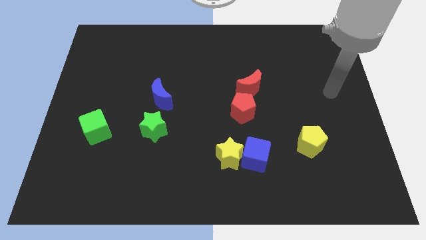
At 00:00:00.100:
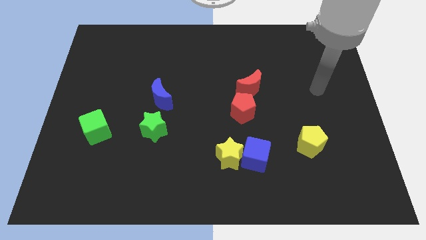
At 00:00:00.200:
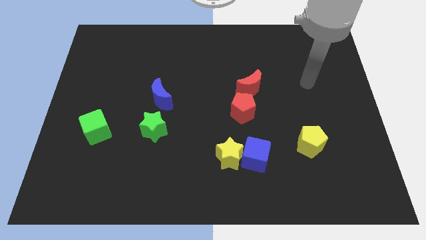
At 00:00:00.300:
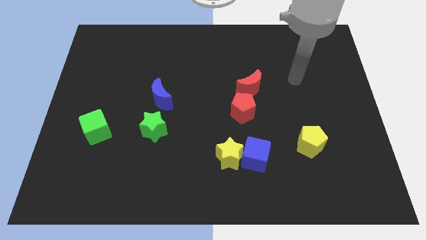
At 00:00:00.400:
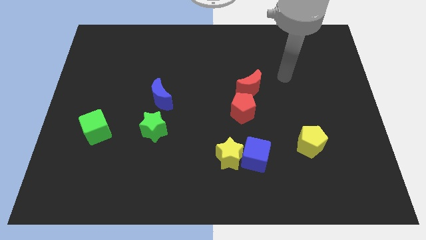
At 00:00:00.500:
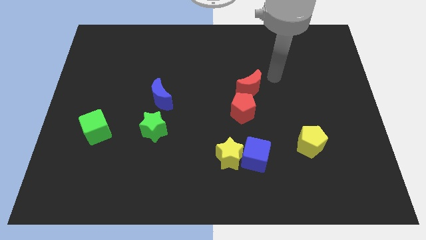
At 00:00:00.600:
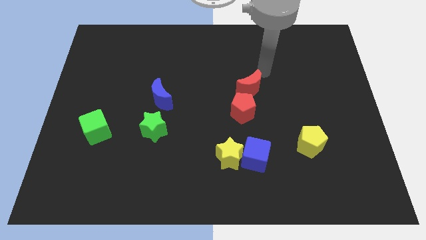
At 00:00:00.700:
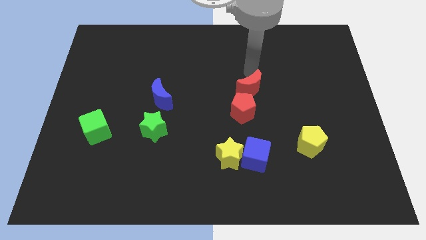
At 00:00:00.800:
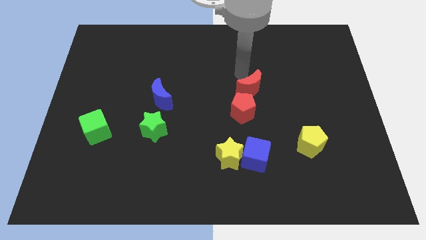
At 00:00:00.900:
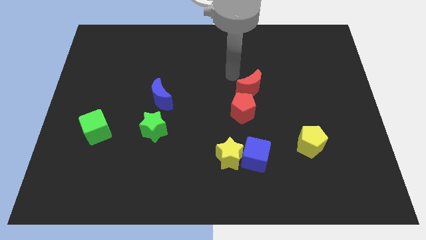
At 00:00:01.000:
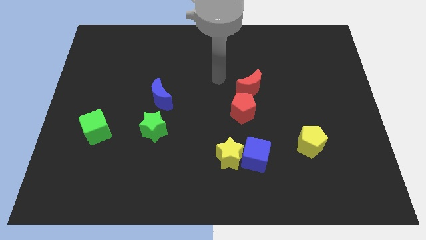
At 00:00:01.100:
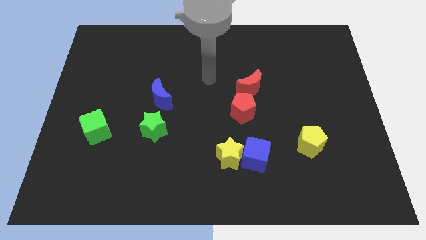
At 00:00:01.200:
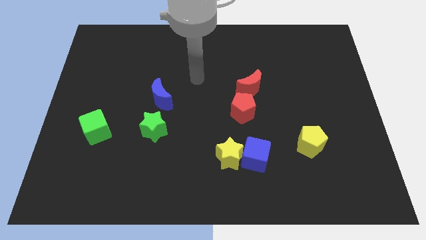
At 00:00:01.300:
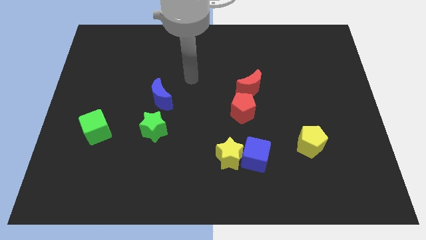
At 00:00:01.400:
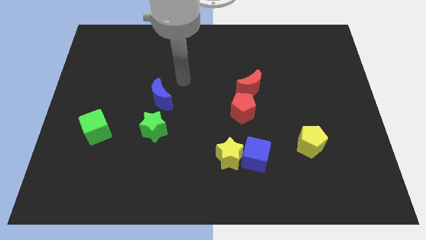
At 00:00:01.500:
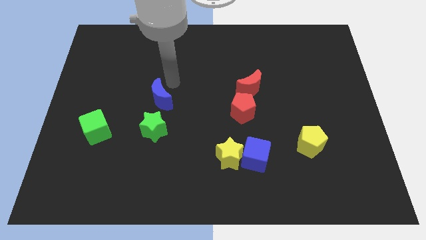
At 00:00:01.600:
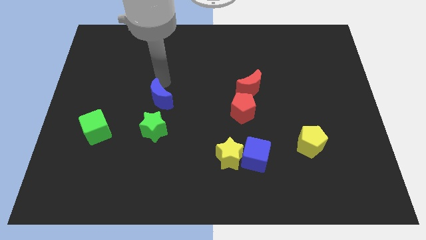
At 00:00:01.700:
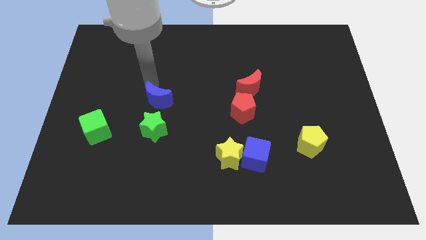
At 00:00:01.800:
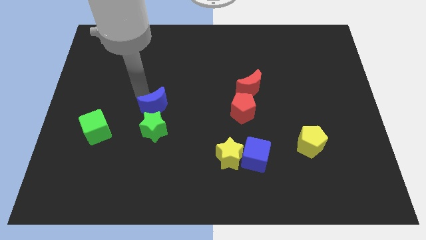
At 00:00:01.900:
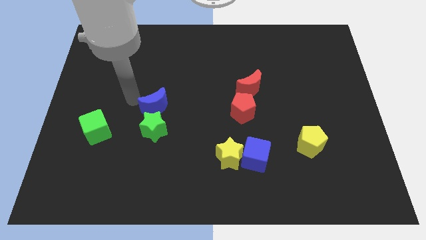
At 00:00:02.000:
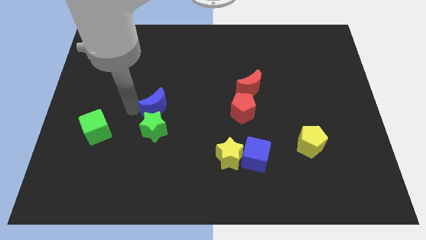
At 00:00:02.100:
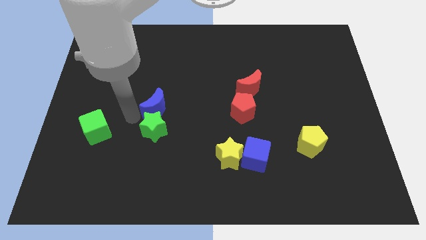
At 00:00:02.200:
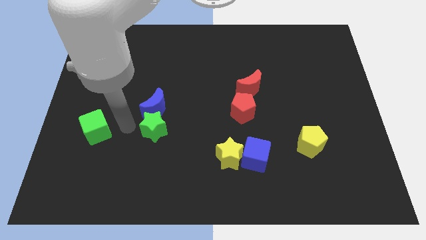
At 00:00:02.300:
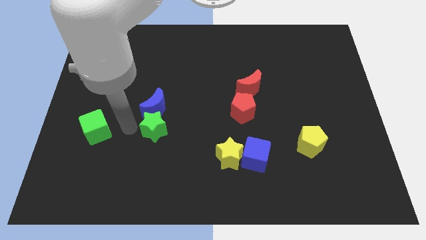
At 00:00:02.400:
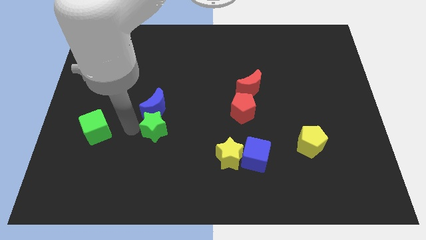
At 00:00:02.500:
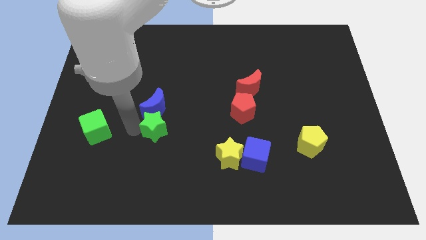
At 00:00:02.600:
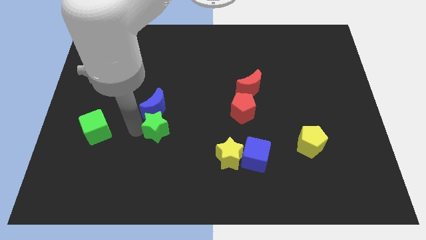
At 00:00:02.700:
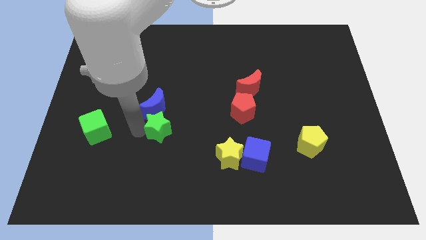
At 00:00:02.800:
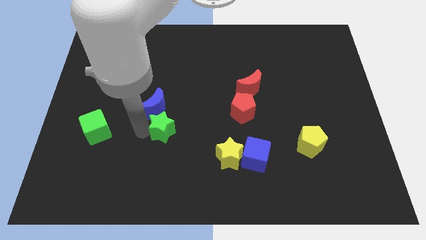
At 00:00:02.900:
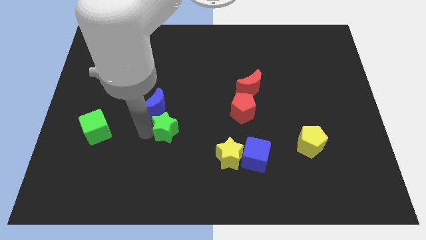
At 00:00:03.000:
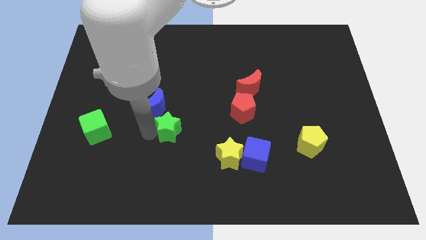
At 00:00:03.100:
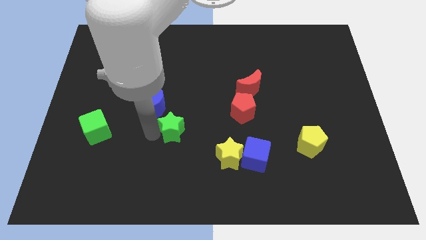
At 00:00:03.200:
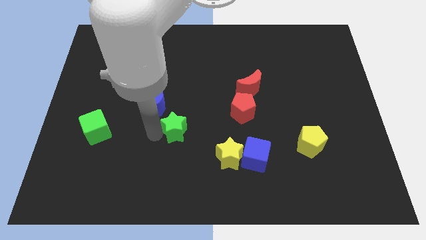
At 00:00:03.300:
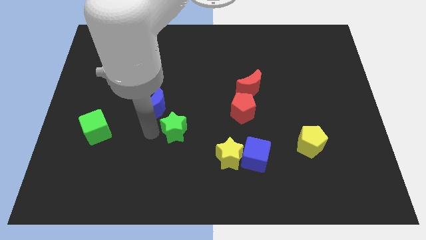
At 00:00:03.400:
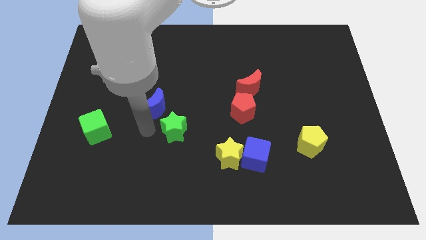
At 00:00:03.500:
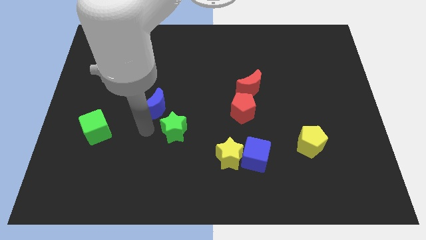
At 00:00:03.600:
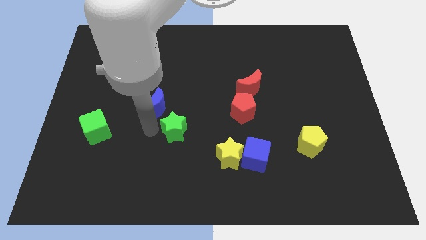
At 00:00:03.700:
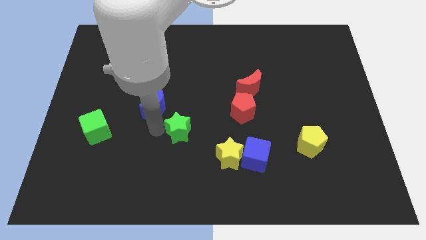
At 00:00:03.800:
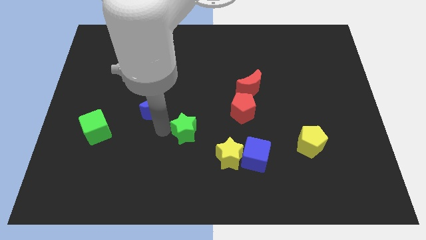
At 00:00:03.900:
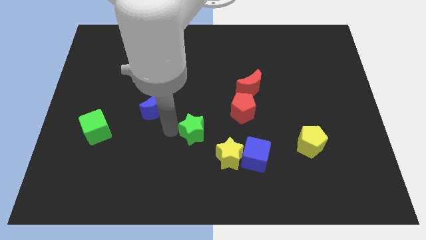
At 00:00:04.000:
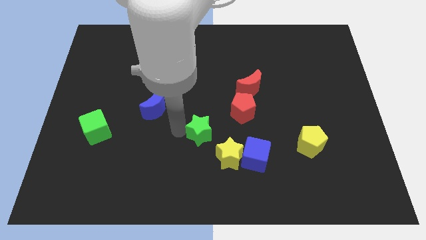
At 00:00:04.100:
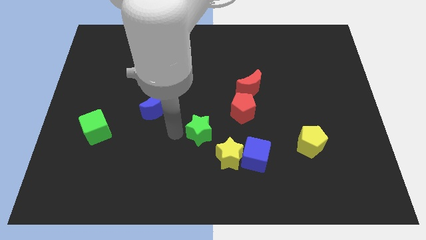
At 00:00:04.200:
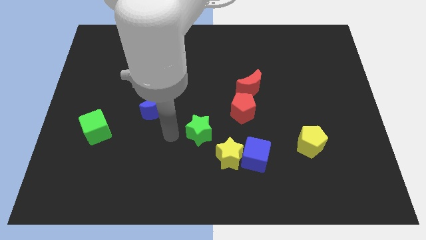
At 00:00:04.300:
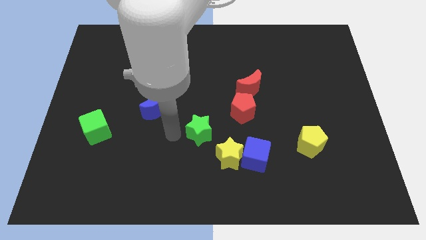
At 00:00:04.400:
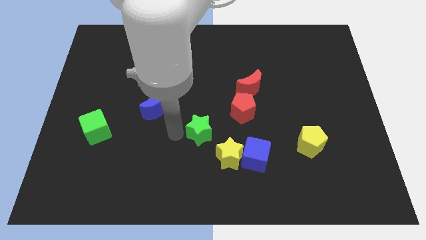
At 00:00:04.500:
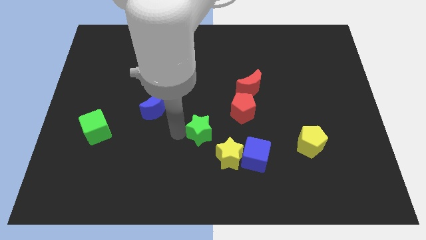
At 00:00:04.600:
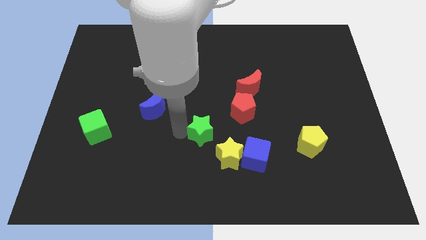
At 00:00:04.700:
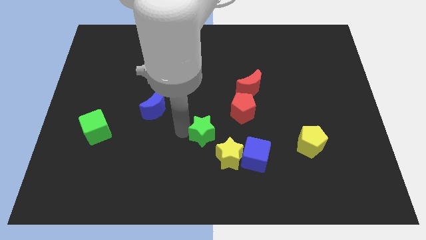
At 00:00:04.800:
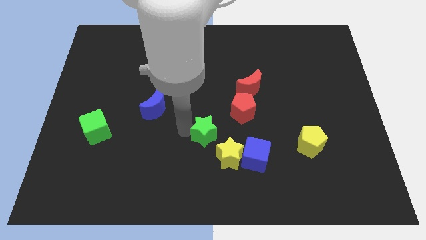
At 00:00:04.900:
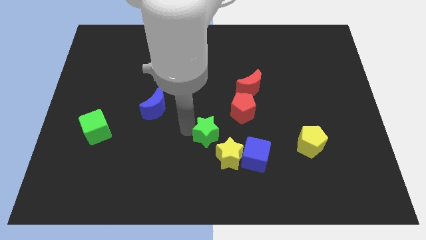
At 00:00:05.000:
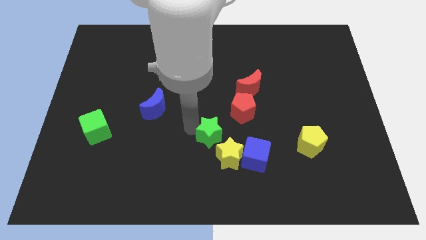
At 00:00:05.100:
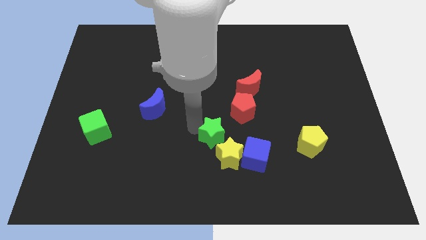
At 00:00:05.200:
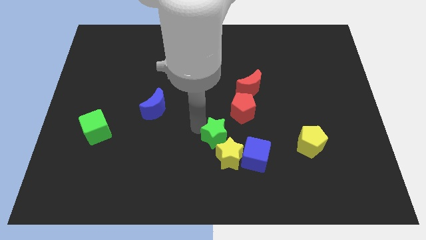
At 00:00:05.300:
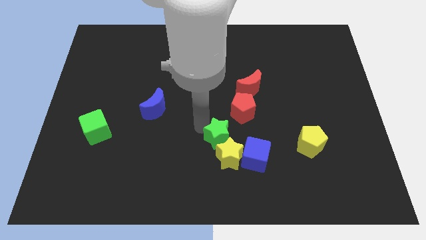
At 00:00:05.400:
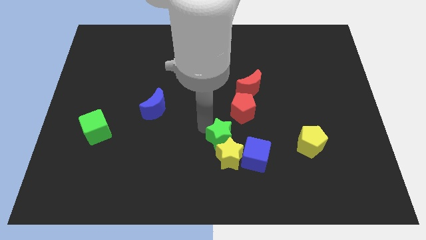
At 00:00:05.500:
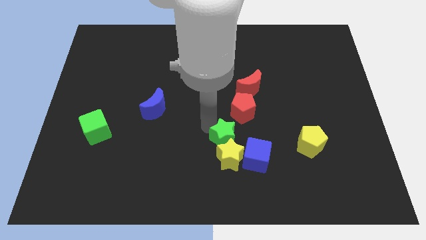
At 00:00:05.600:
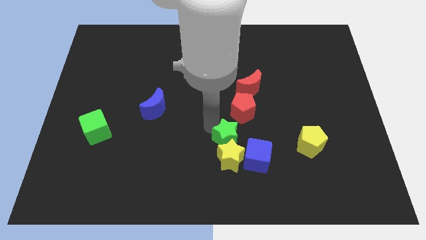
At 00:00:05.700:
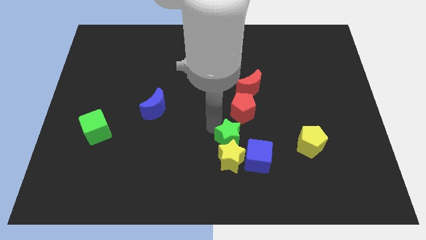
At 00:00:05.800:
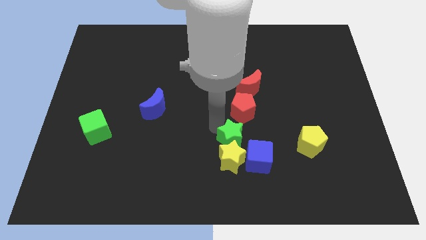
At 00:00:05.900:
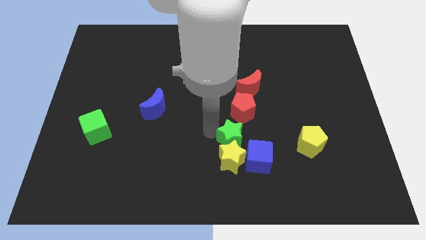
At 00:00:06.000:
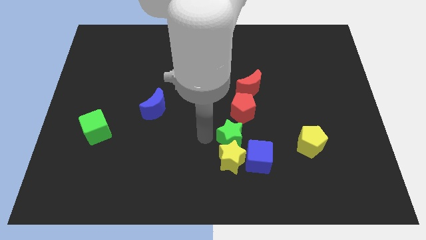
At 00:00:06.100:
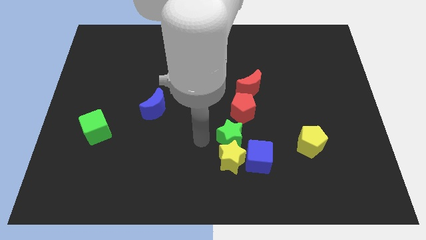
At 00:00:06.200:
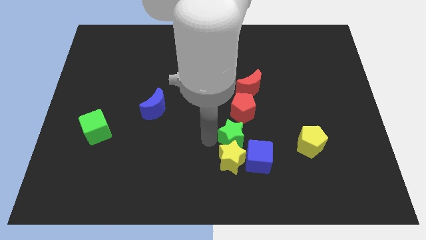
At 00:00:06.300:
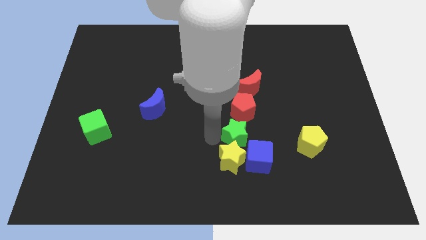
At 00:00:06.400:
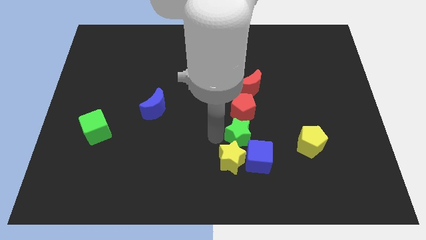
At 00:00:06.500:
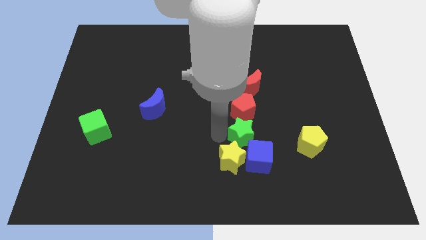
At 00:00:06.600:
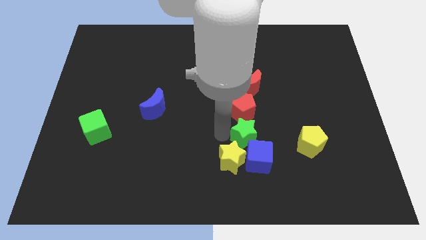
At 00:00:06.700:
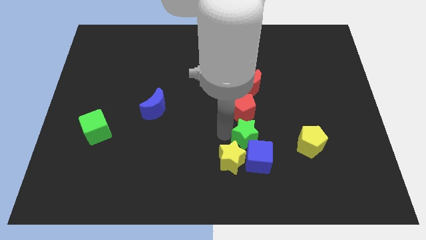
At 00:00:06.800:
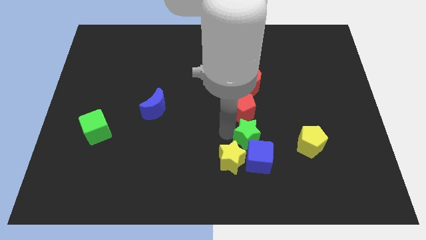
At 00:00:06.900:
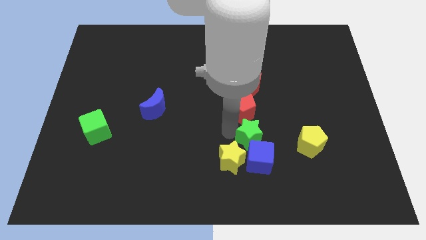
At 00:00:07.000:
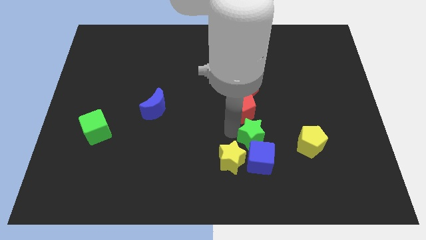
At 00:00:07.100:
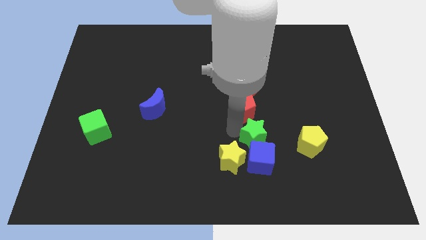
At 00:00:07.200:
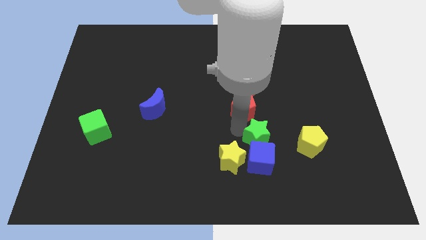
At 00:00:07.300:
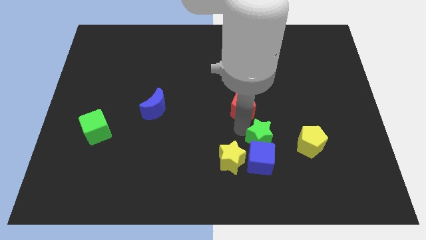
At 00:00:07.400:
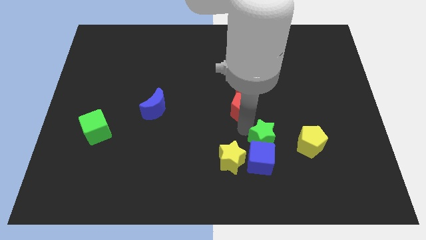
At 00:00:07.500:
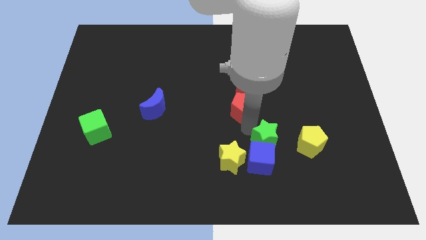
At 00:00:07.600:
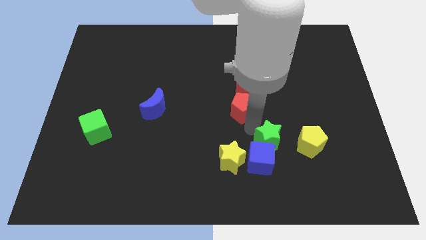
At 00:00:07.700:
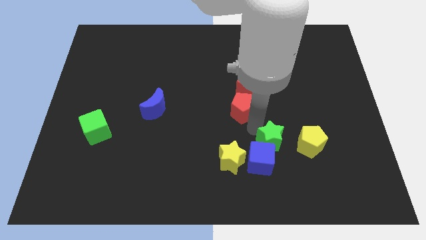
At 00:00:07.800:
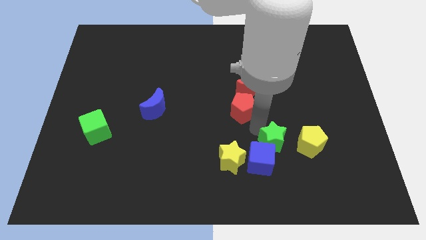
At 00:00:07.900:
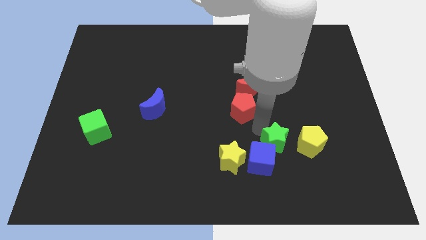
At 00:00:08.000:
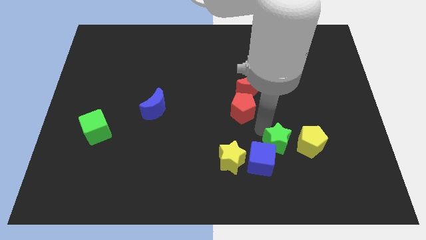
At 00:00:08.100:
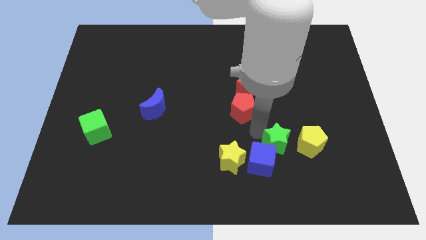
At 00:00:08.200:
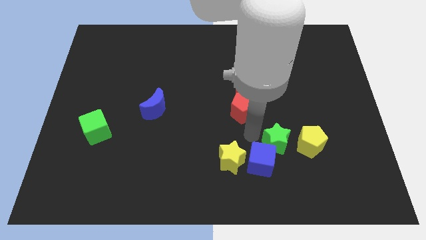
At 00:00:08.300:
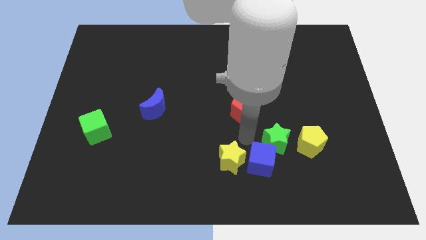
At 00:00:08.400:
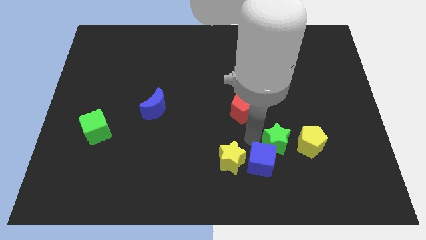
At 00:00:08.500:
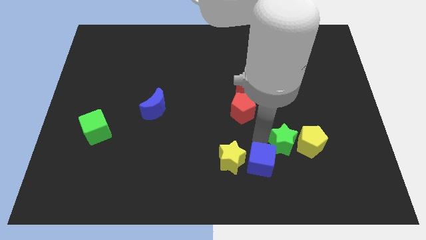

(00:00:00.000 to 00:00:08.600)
push the green star next to the yellow pentagon
